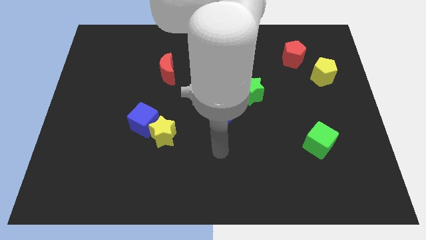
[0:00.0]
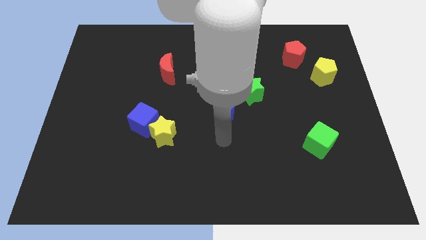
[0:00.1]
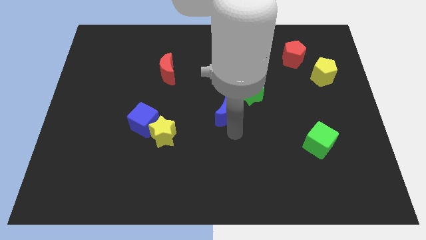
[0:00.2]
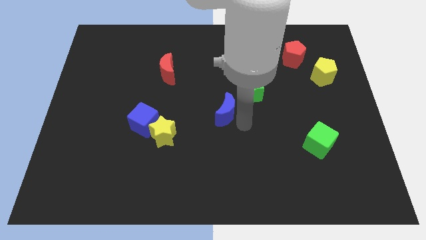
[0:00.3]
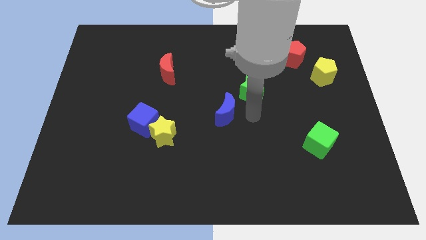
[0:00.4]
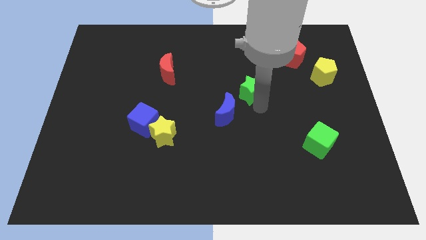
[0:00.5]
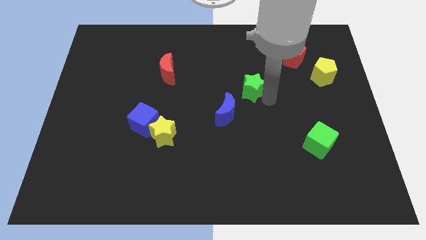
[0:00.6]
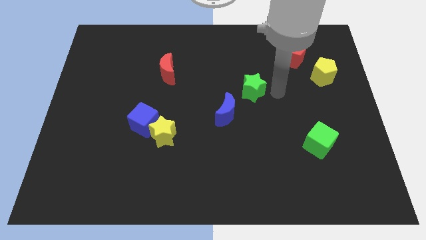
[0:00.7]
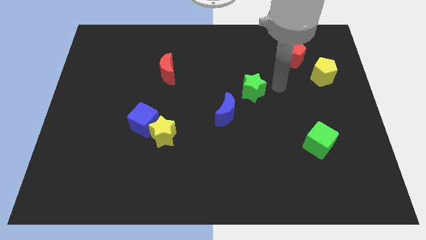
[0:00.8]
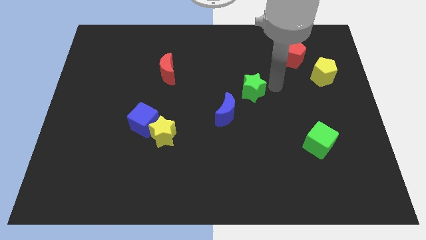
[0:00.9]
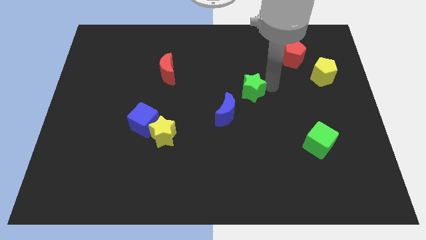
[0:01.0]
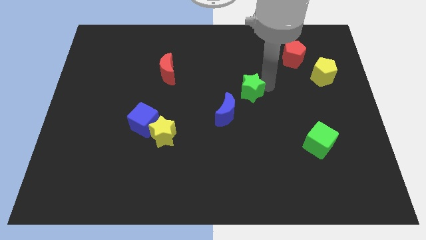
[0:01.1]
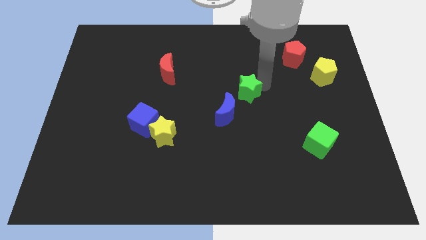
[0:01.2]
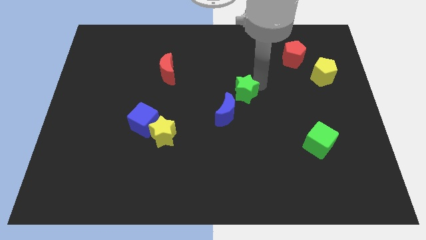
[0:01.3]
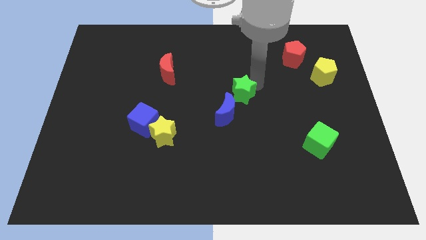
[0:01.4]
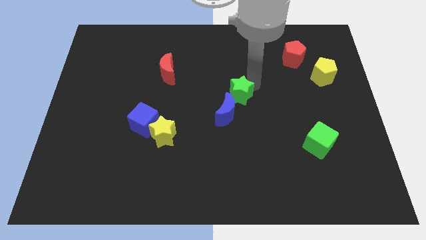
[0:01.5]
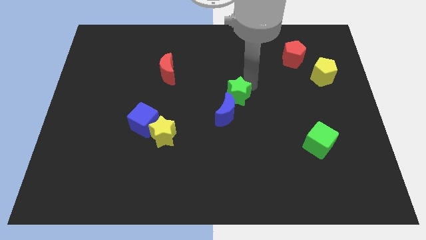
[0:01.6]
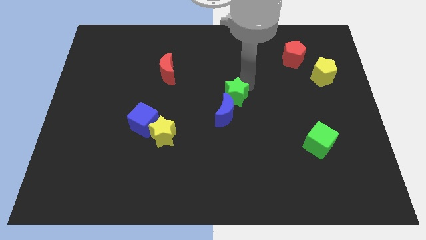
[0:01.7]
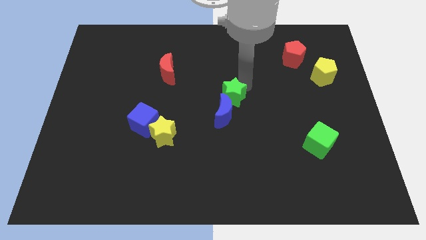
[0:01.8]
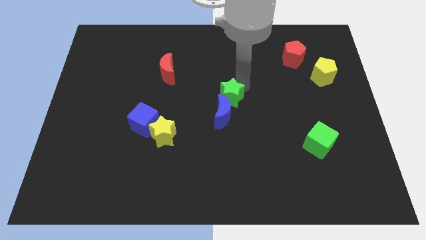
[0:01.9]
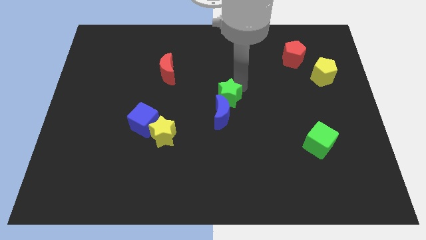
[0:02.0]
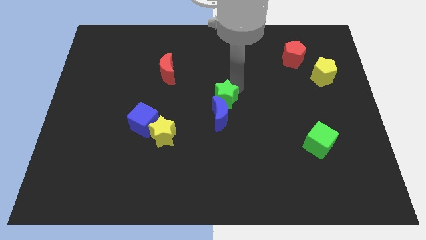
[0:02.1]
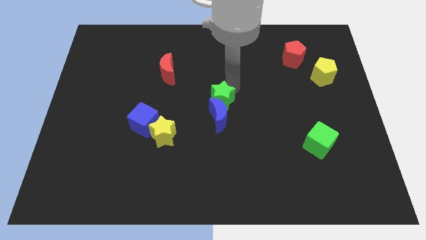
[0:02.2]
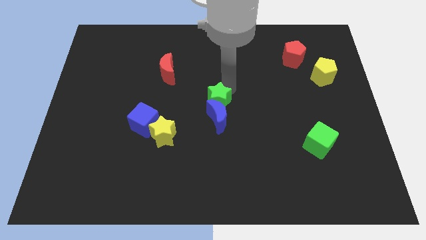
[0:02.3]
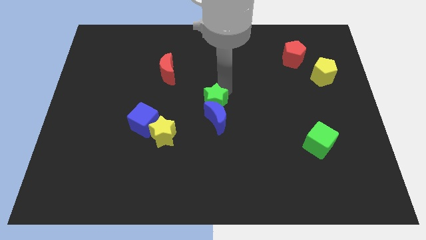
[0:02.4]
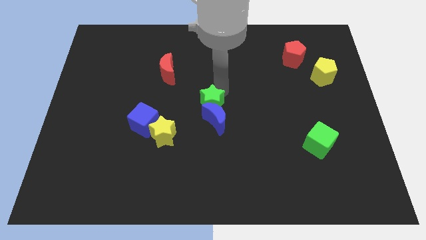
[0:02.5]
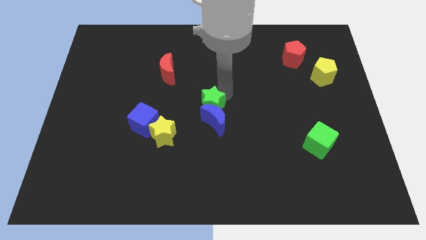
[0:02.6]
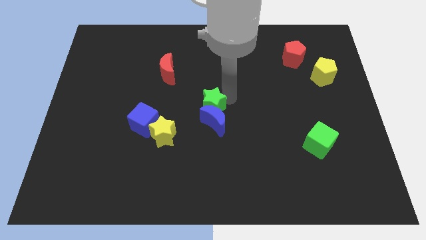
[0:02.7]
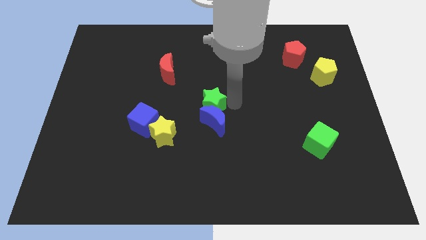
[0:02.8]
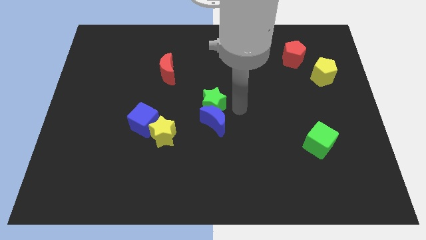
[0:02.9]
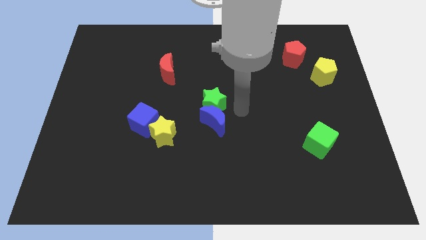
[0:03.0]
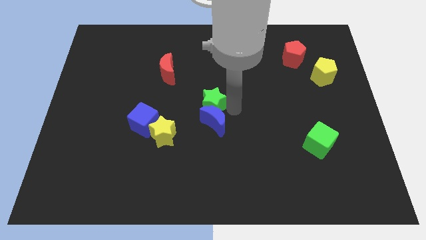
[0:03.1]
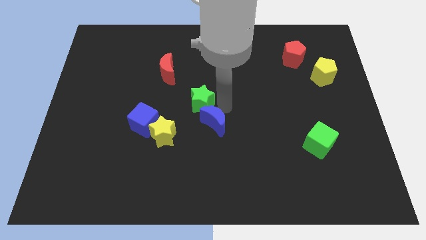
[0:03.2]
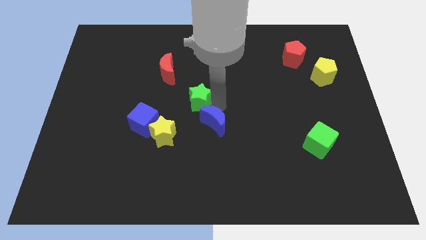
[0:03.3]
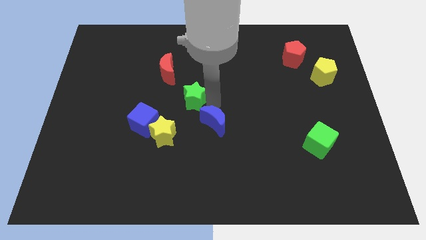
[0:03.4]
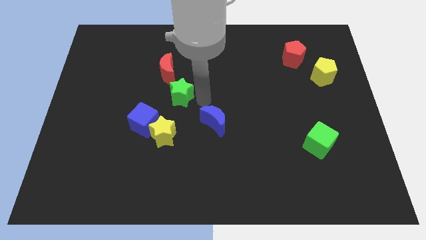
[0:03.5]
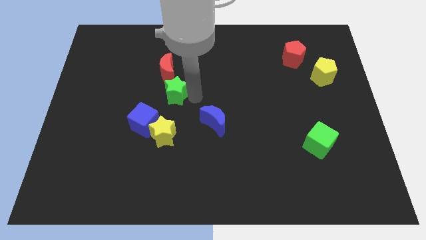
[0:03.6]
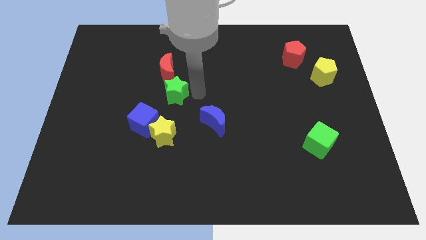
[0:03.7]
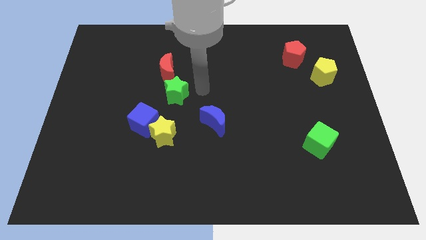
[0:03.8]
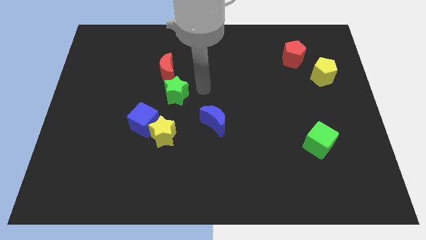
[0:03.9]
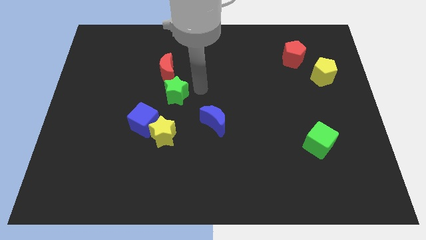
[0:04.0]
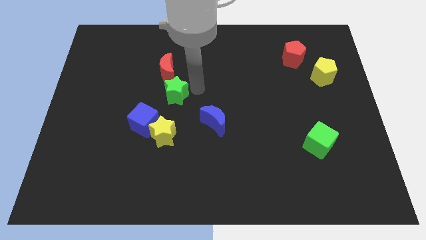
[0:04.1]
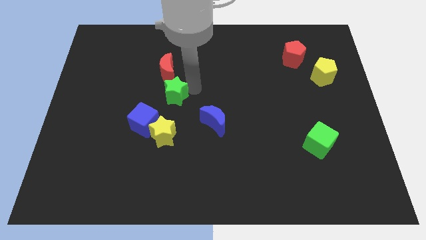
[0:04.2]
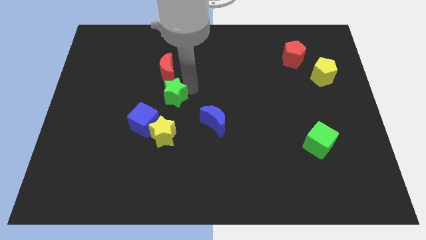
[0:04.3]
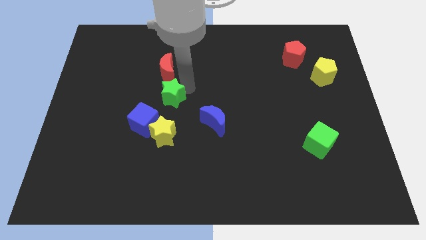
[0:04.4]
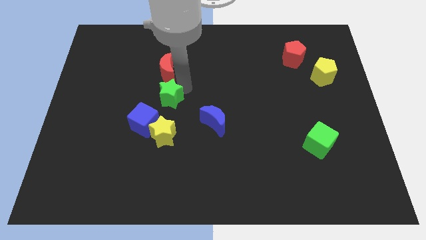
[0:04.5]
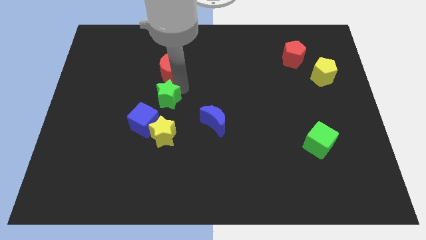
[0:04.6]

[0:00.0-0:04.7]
move the green star to the left

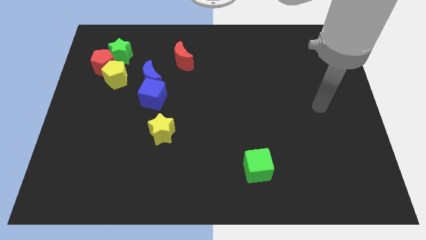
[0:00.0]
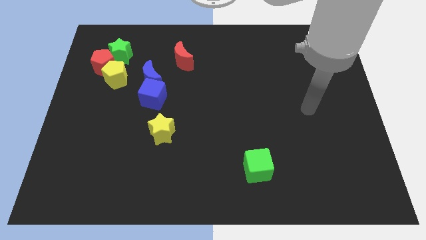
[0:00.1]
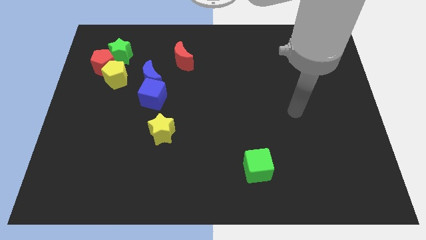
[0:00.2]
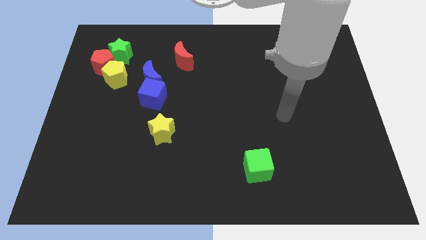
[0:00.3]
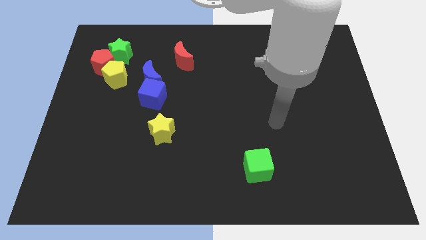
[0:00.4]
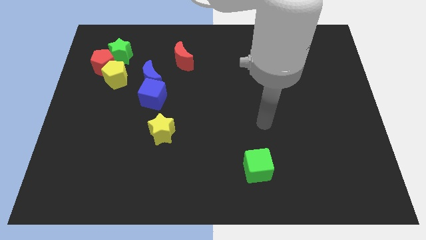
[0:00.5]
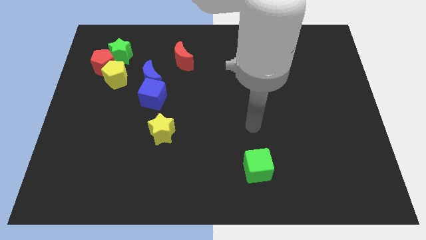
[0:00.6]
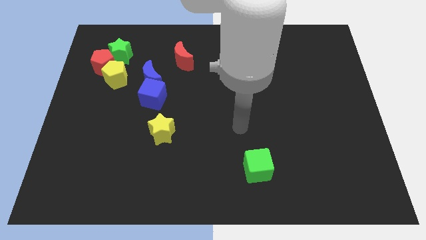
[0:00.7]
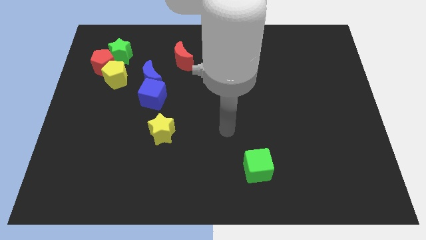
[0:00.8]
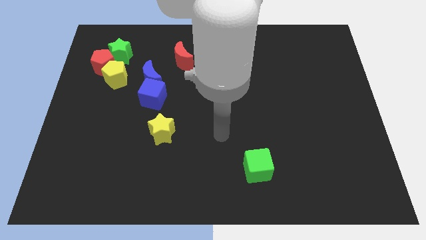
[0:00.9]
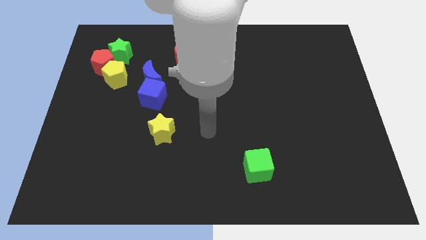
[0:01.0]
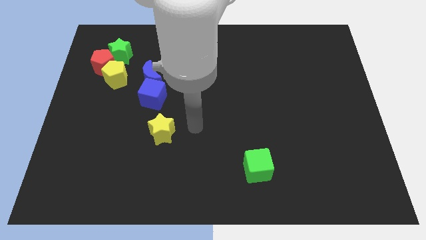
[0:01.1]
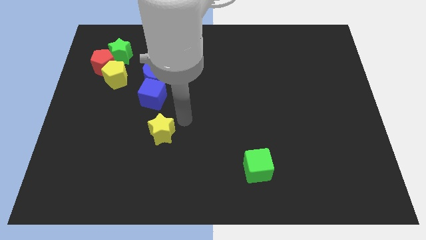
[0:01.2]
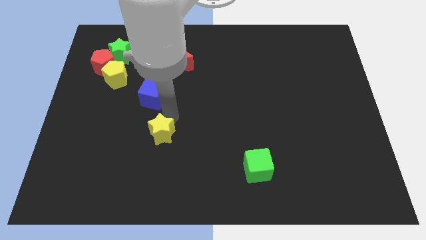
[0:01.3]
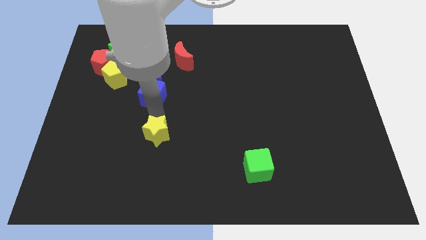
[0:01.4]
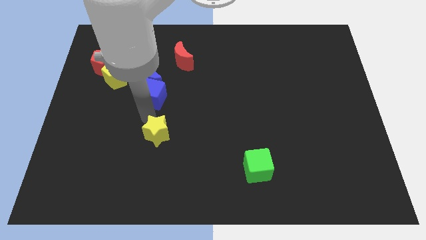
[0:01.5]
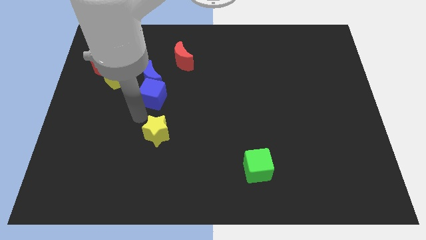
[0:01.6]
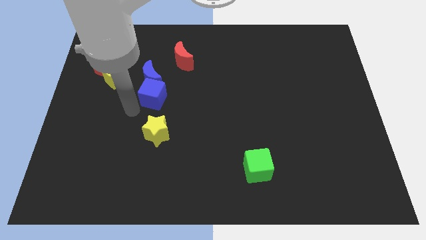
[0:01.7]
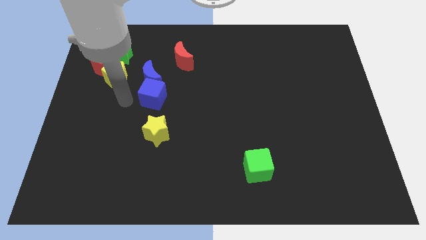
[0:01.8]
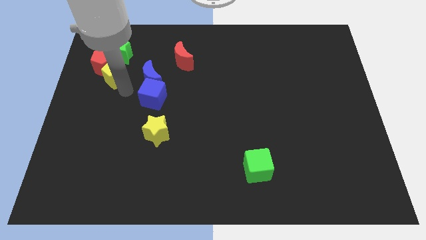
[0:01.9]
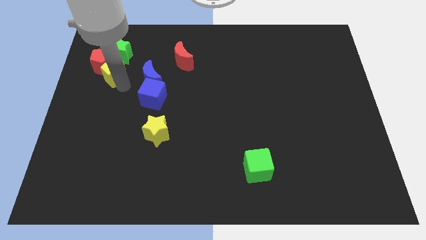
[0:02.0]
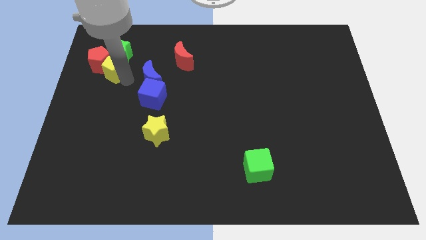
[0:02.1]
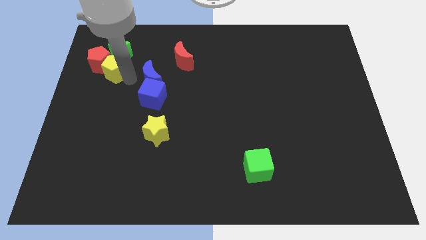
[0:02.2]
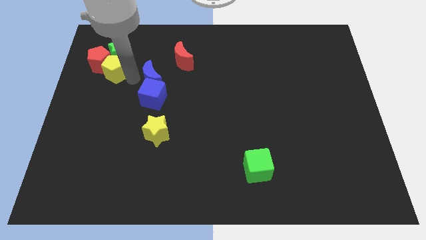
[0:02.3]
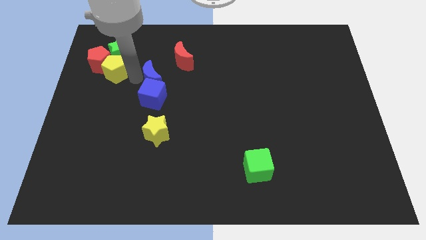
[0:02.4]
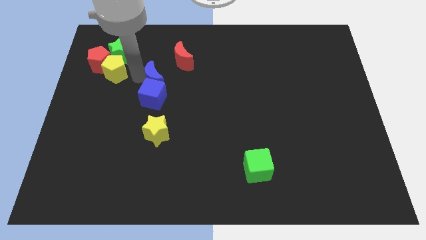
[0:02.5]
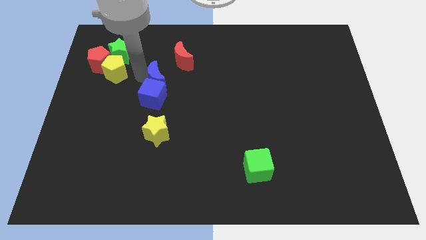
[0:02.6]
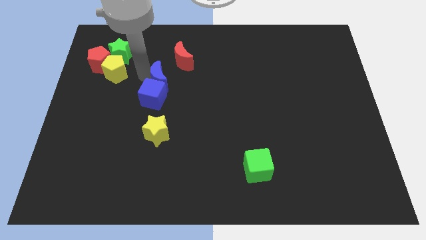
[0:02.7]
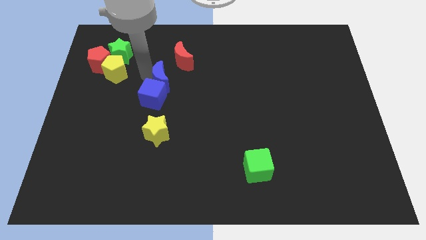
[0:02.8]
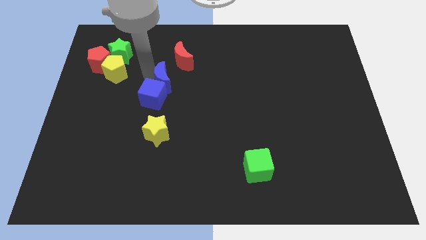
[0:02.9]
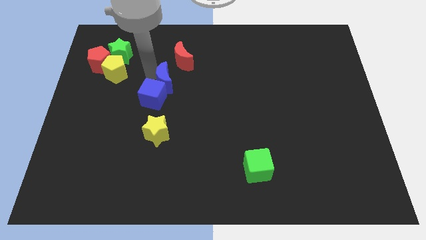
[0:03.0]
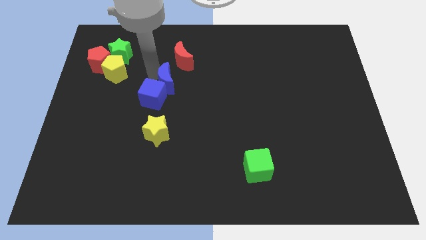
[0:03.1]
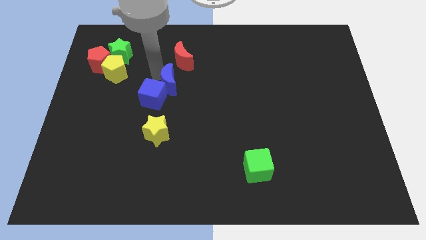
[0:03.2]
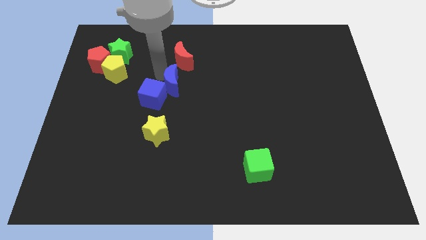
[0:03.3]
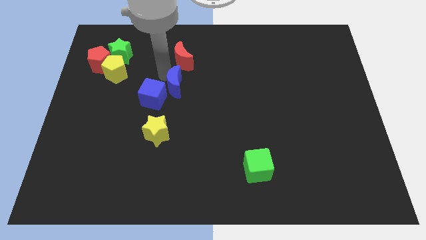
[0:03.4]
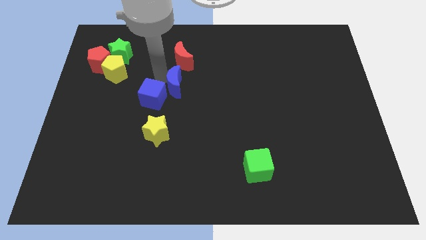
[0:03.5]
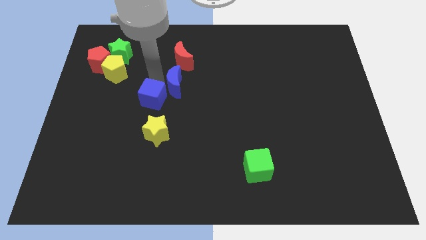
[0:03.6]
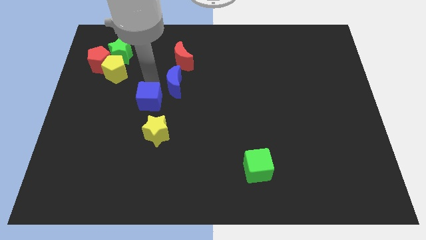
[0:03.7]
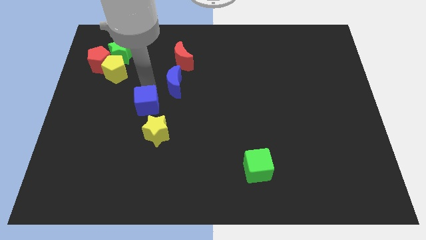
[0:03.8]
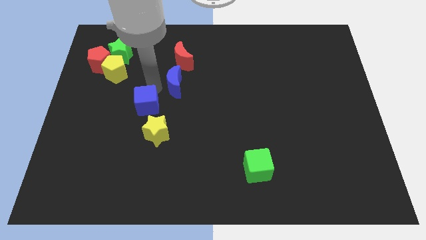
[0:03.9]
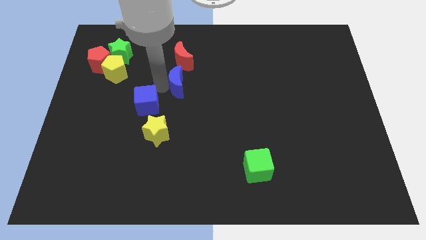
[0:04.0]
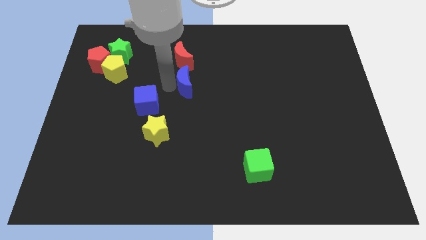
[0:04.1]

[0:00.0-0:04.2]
move the blue moon right somewhat
